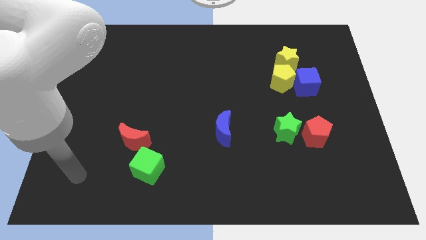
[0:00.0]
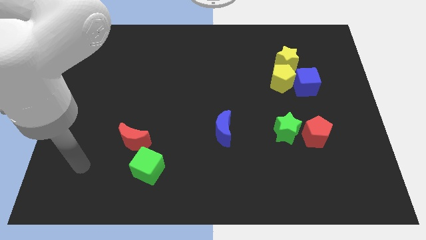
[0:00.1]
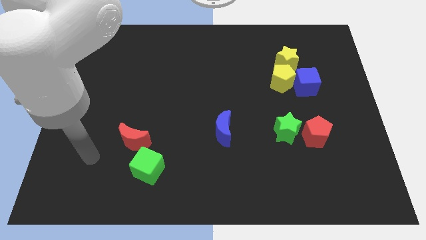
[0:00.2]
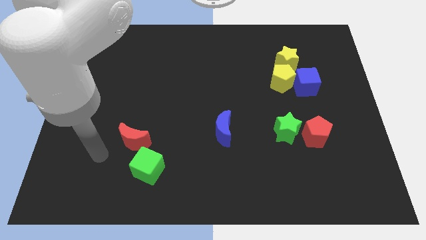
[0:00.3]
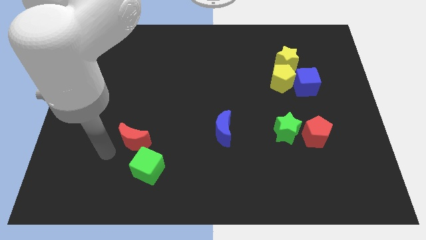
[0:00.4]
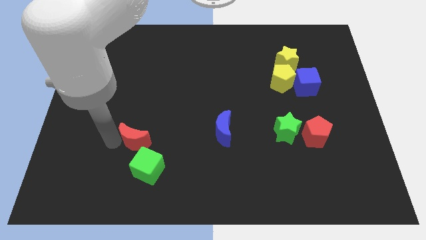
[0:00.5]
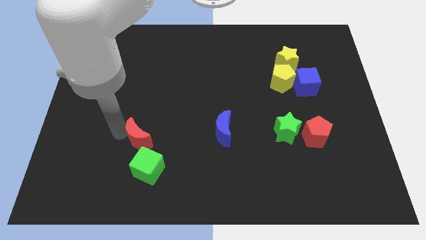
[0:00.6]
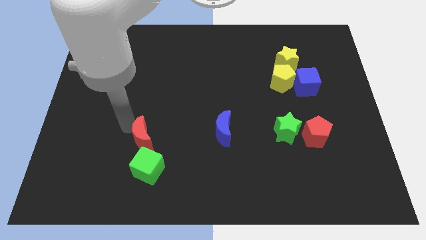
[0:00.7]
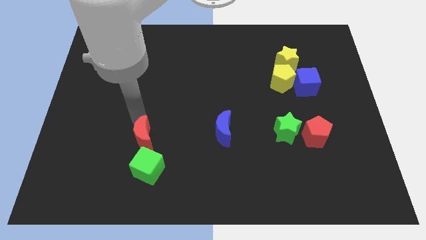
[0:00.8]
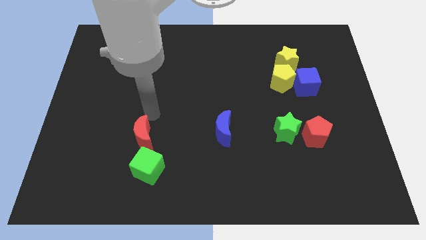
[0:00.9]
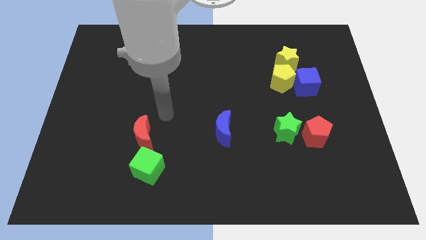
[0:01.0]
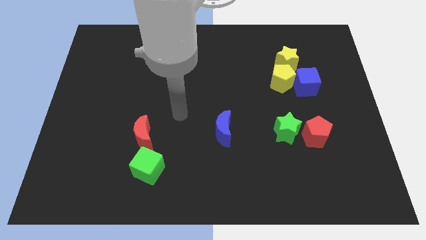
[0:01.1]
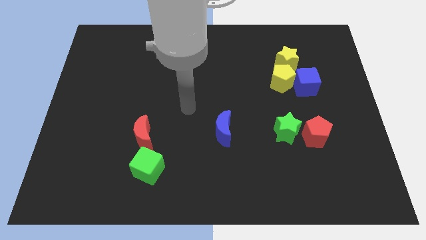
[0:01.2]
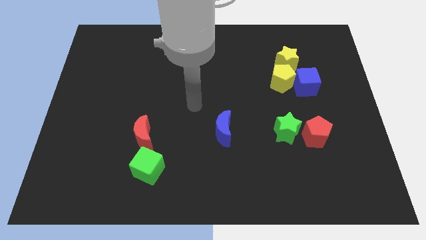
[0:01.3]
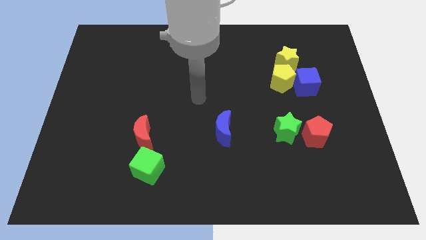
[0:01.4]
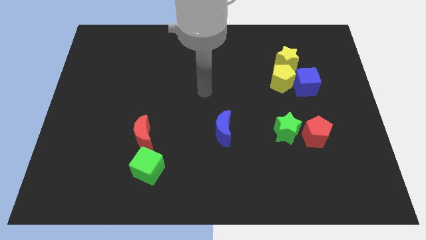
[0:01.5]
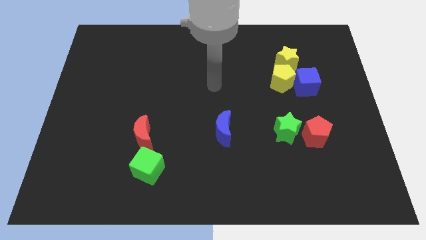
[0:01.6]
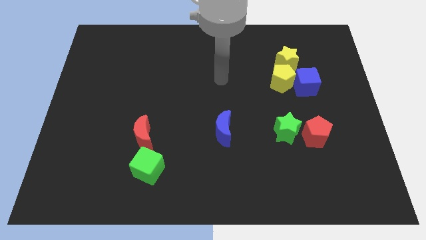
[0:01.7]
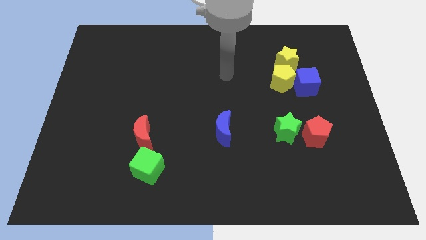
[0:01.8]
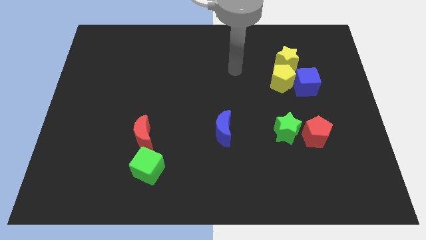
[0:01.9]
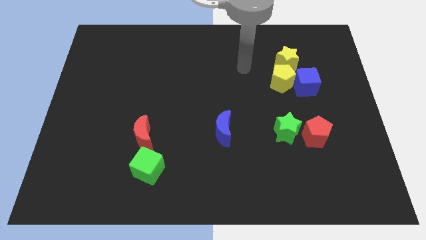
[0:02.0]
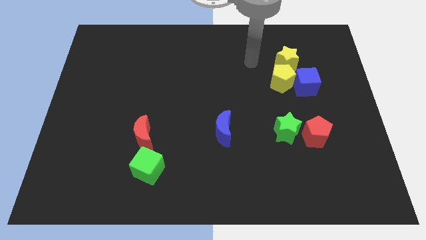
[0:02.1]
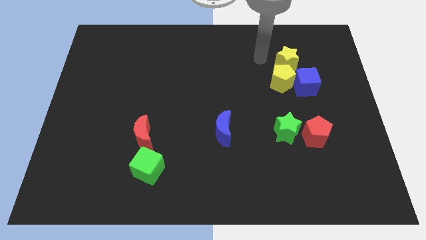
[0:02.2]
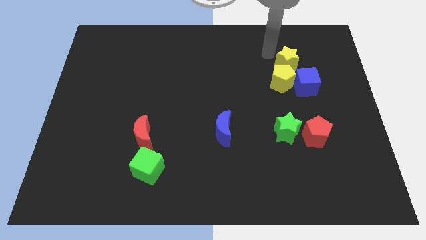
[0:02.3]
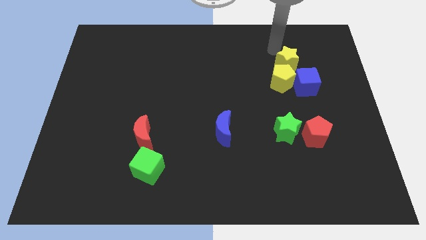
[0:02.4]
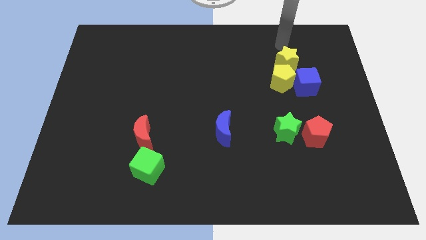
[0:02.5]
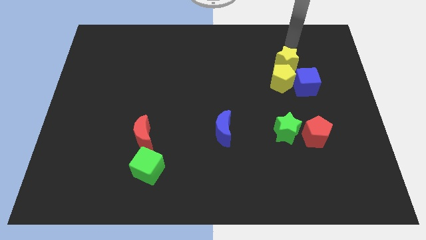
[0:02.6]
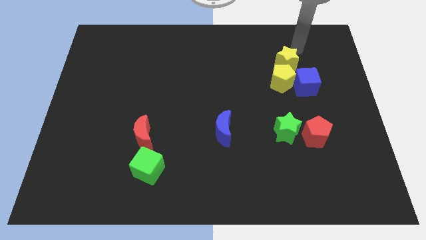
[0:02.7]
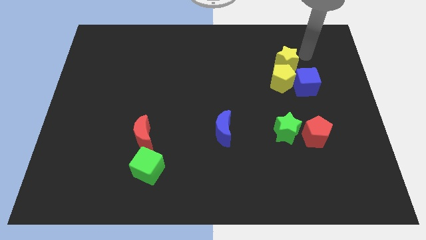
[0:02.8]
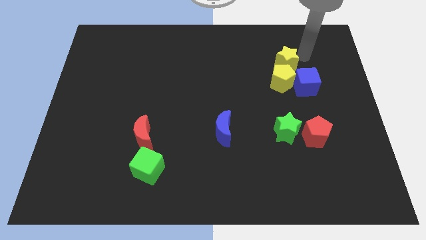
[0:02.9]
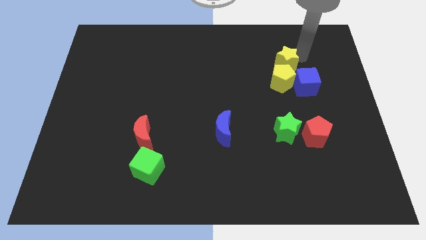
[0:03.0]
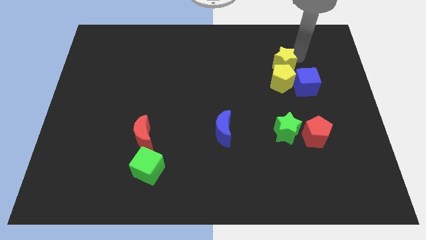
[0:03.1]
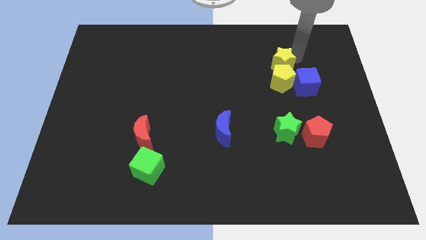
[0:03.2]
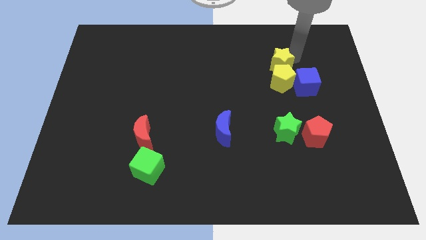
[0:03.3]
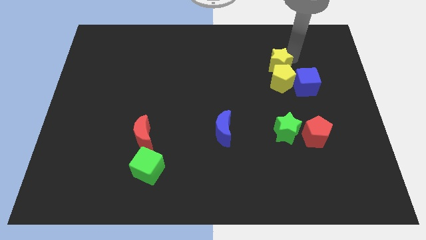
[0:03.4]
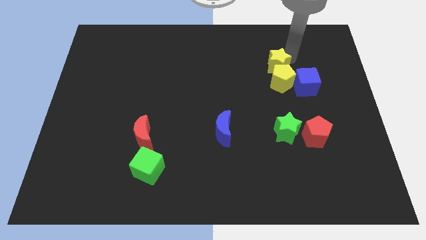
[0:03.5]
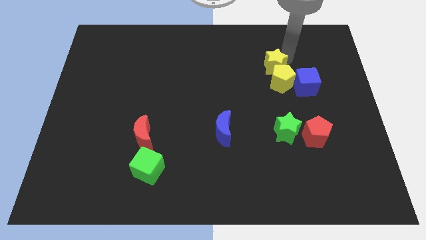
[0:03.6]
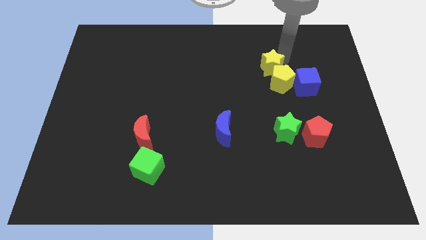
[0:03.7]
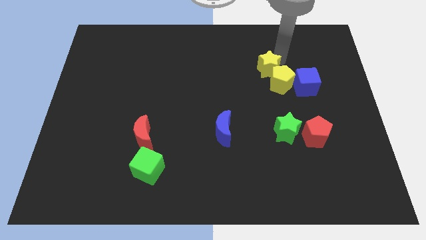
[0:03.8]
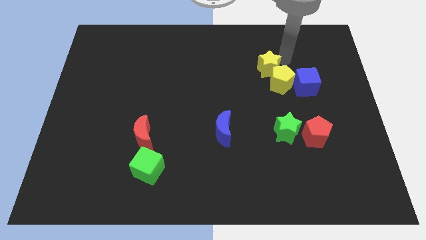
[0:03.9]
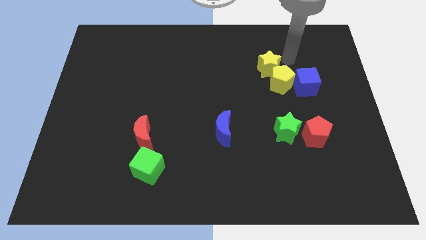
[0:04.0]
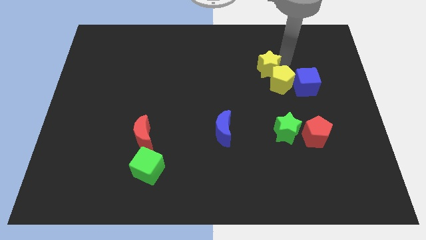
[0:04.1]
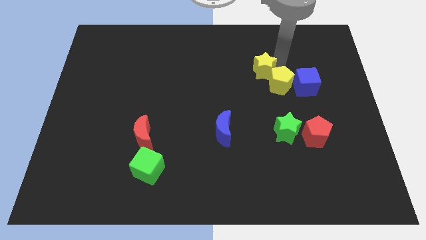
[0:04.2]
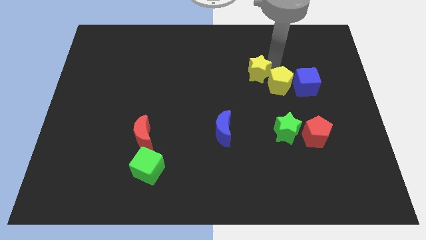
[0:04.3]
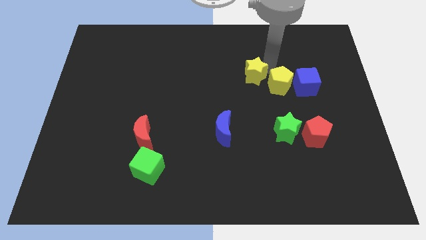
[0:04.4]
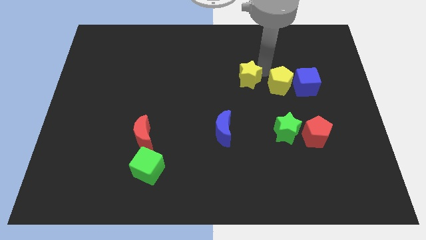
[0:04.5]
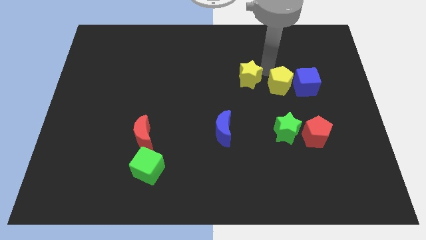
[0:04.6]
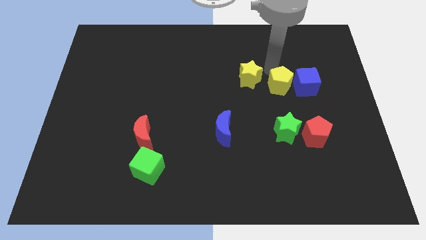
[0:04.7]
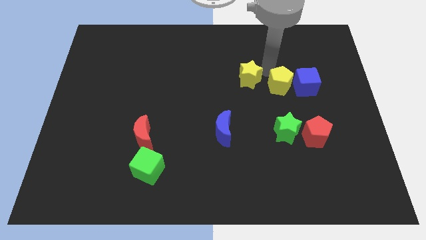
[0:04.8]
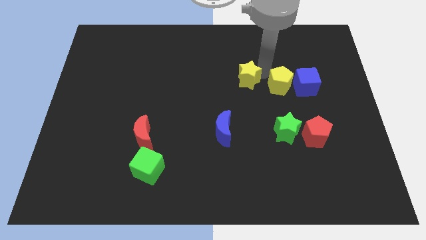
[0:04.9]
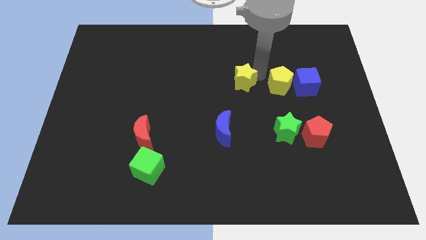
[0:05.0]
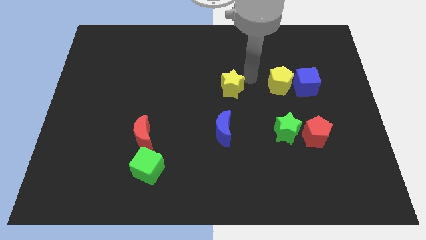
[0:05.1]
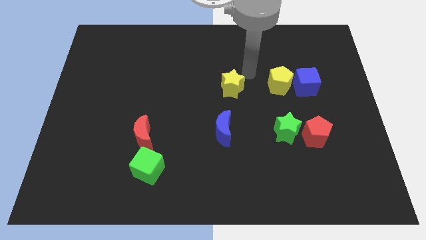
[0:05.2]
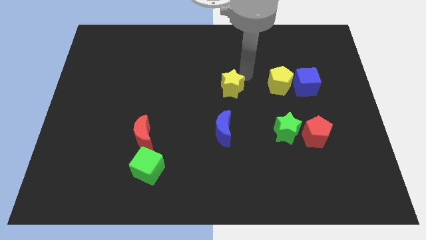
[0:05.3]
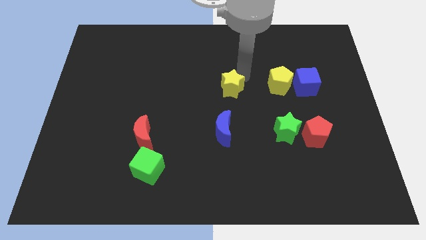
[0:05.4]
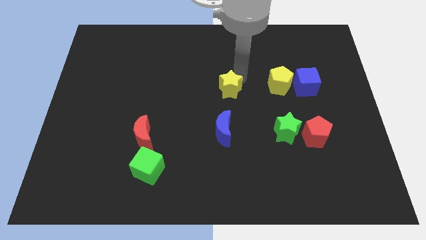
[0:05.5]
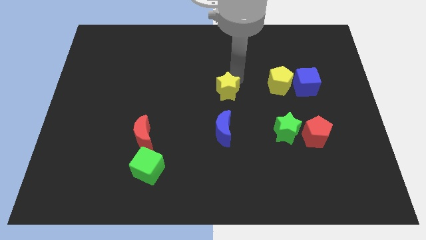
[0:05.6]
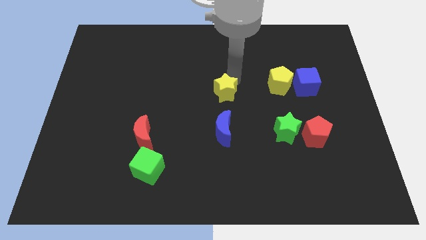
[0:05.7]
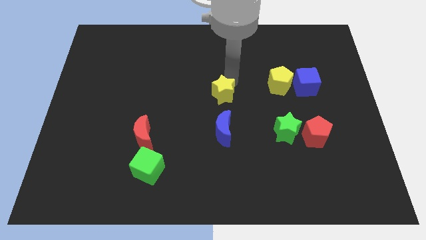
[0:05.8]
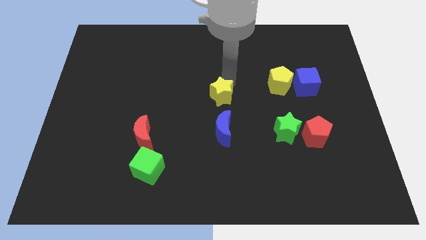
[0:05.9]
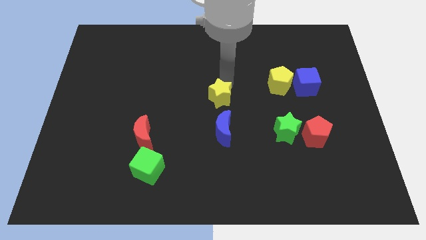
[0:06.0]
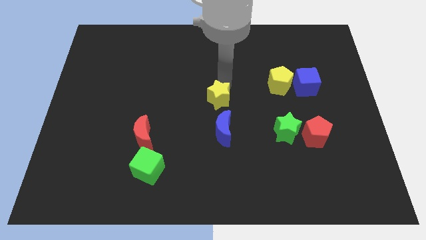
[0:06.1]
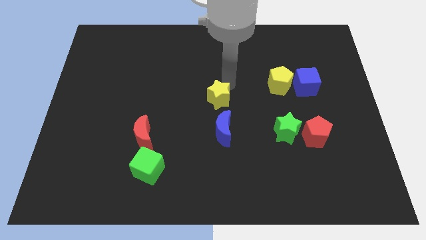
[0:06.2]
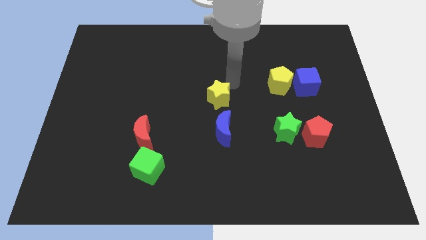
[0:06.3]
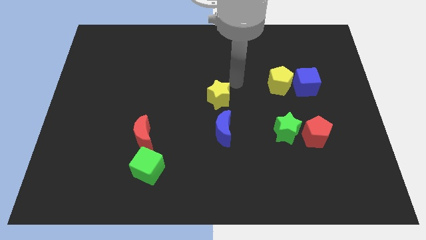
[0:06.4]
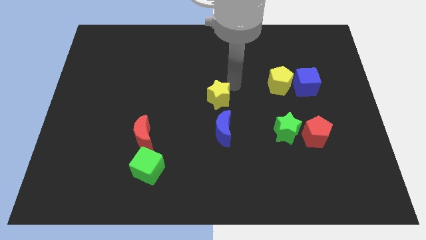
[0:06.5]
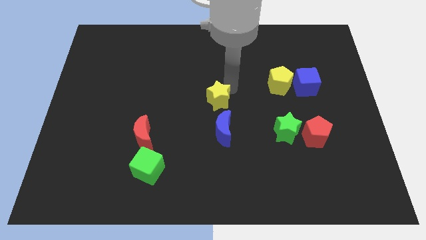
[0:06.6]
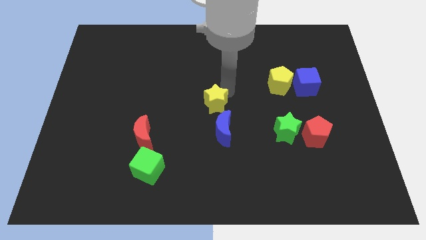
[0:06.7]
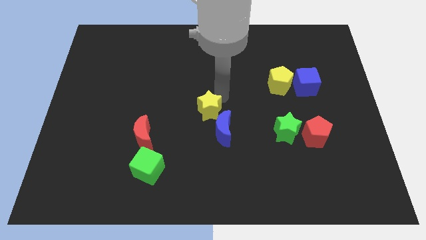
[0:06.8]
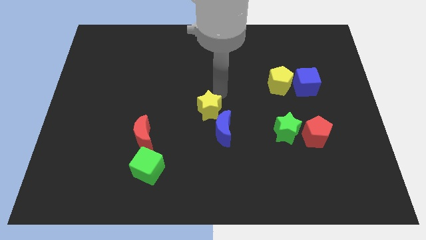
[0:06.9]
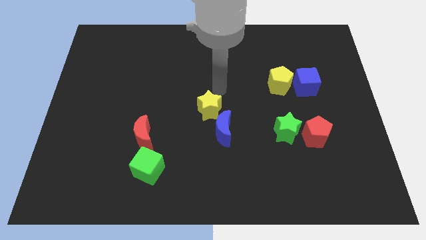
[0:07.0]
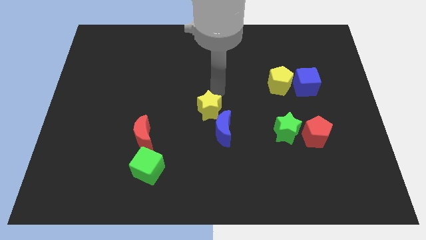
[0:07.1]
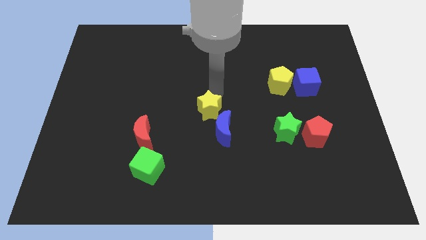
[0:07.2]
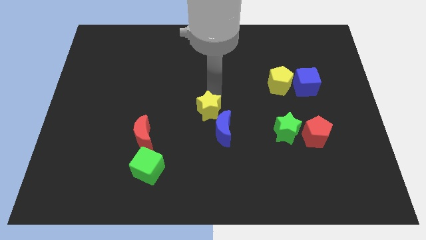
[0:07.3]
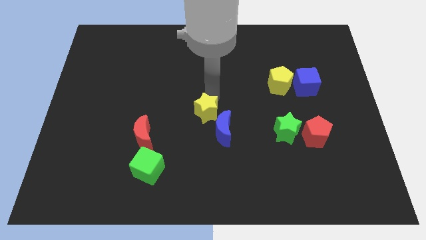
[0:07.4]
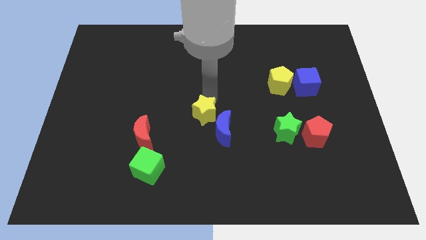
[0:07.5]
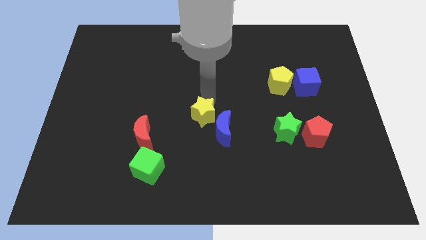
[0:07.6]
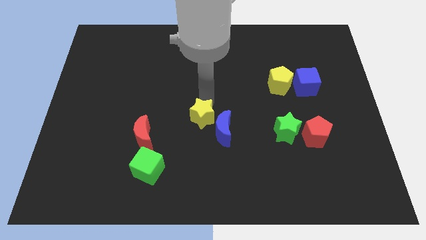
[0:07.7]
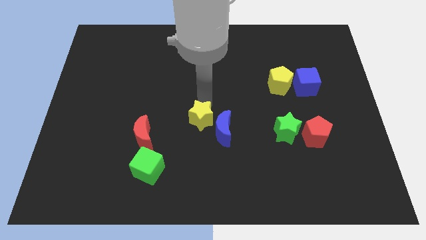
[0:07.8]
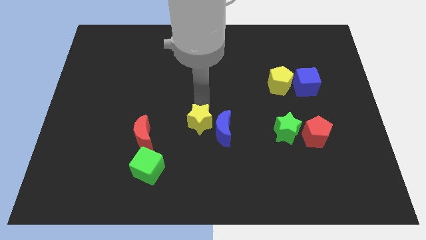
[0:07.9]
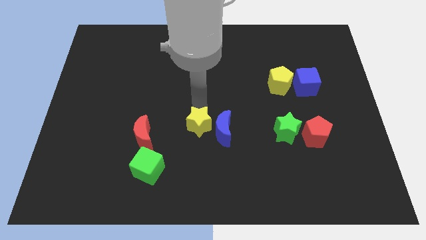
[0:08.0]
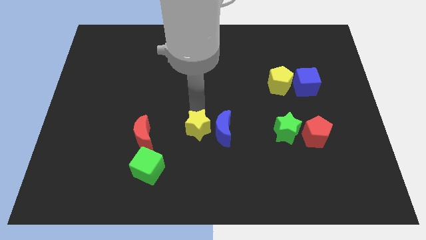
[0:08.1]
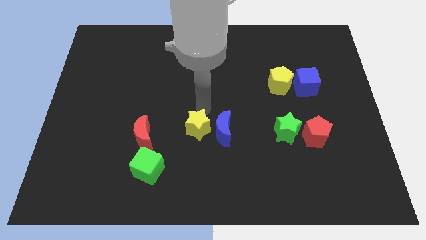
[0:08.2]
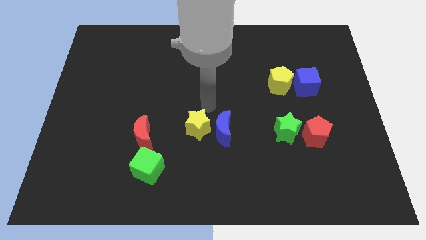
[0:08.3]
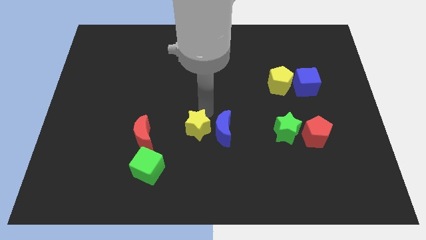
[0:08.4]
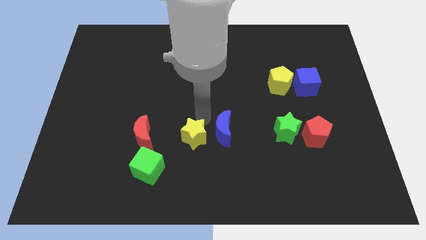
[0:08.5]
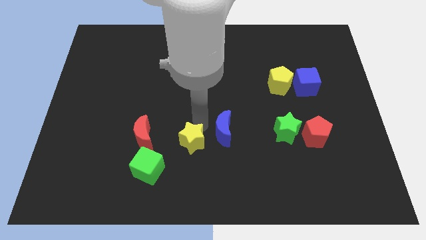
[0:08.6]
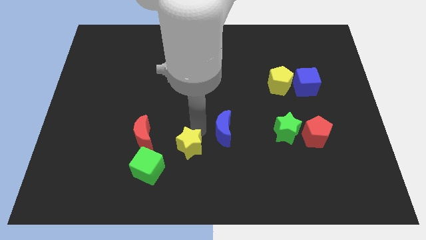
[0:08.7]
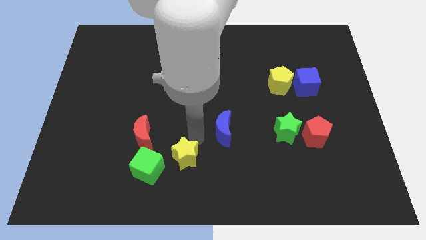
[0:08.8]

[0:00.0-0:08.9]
put the yellow star to the bottom right of the red moon
